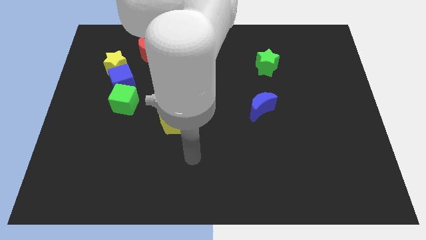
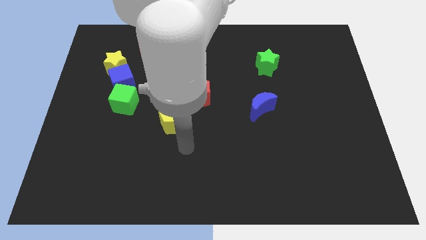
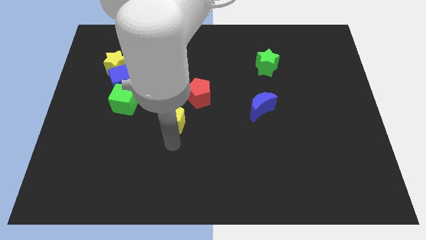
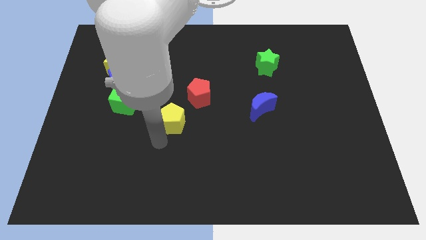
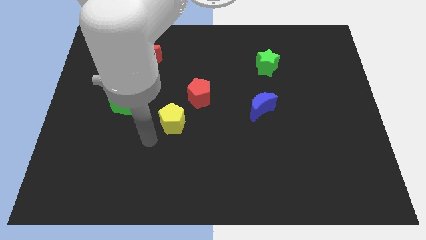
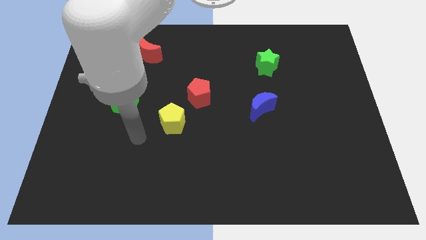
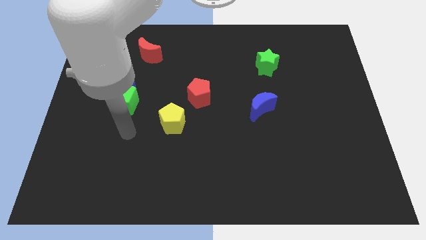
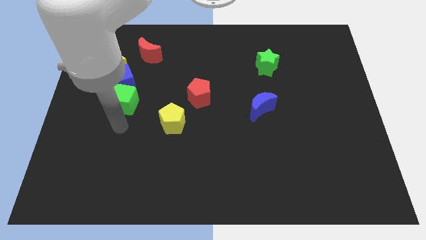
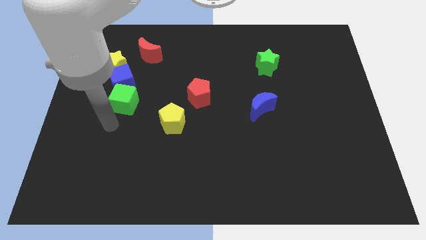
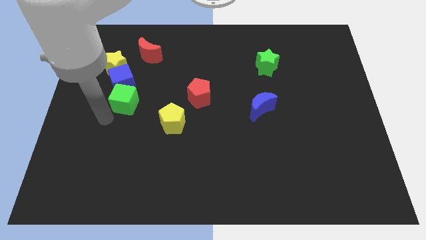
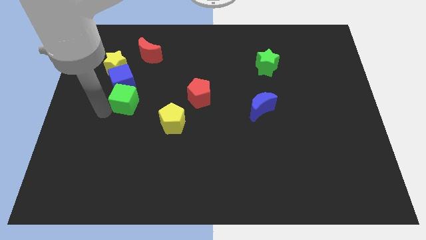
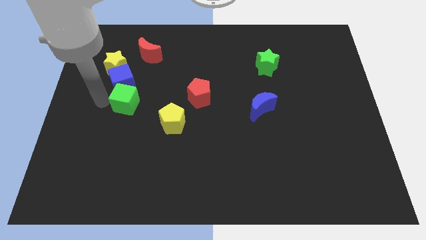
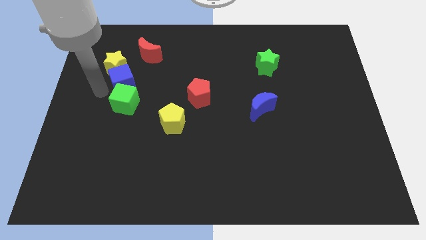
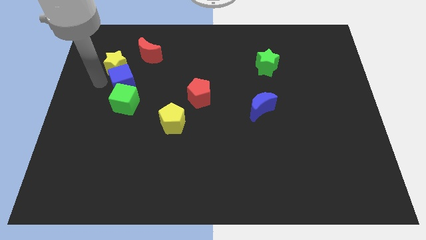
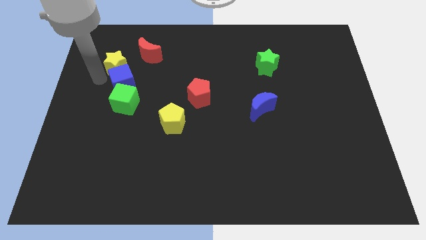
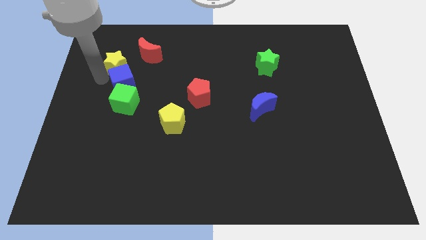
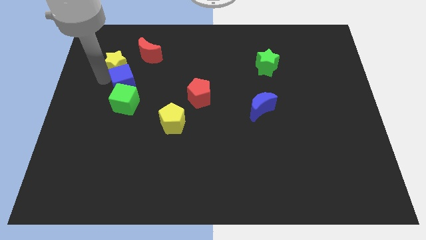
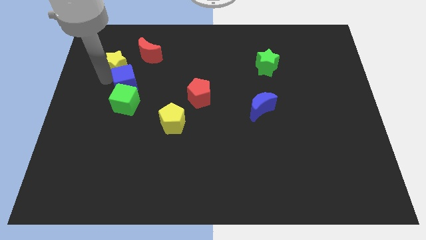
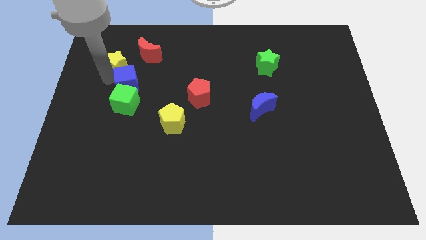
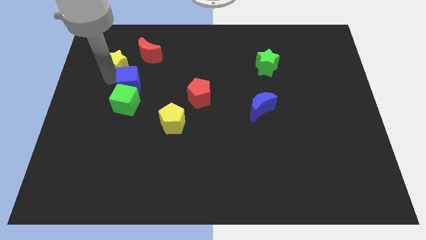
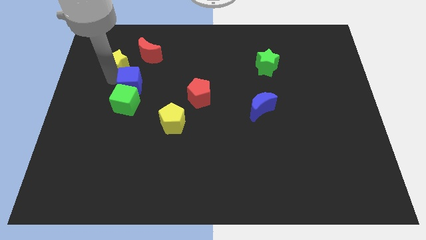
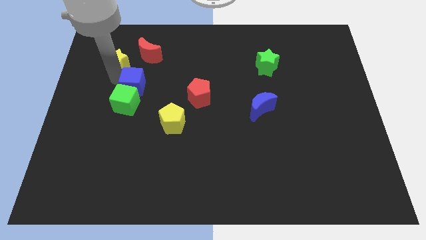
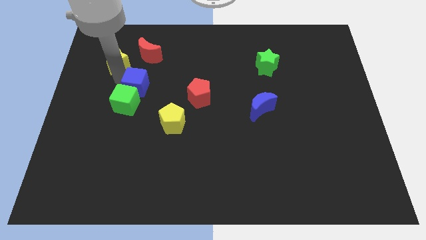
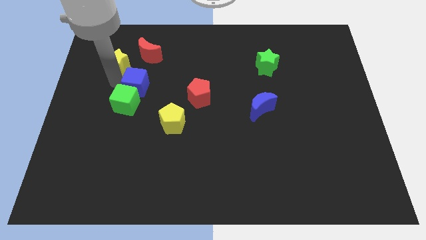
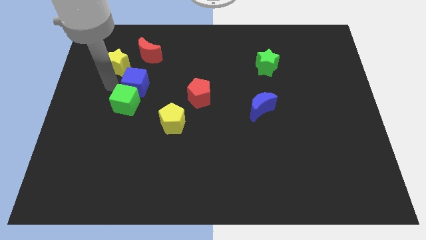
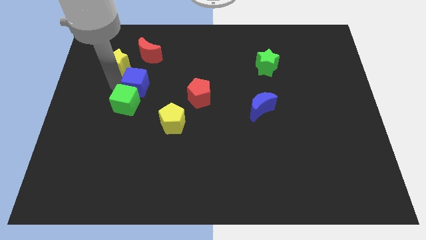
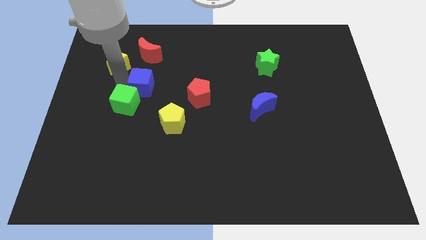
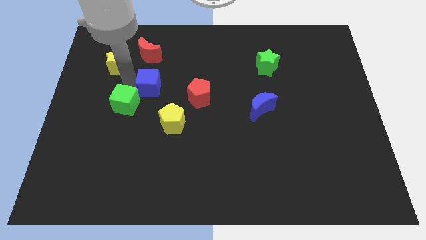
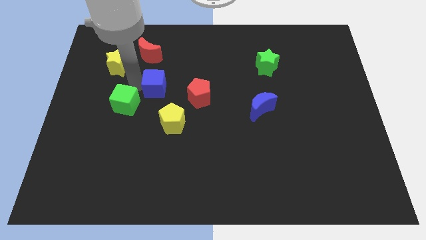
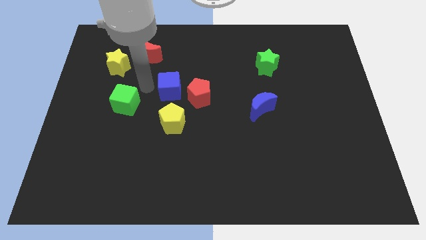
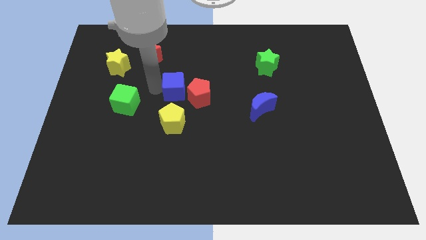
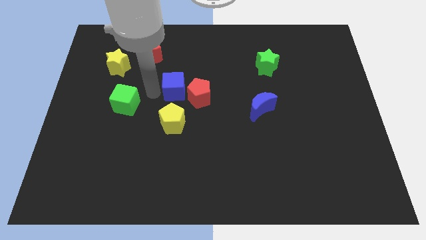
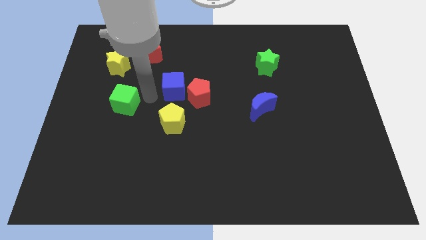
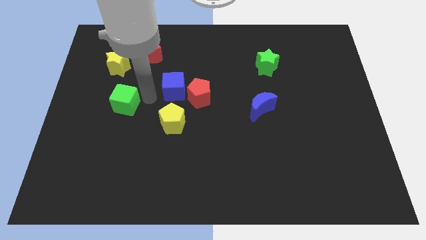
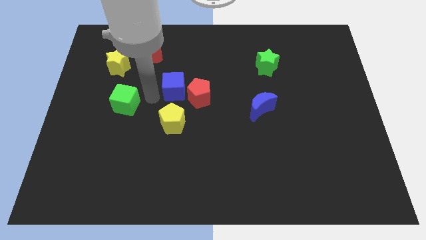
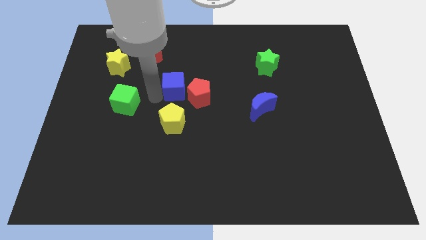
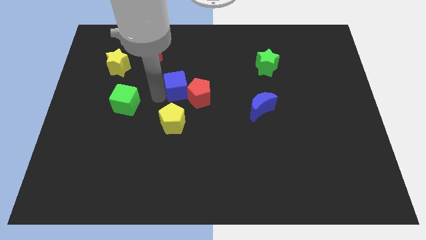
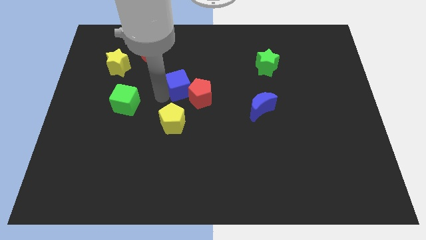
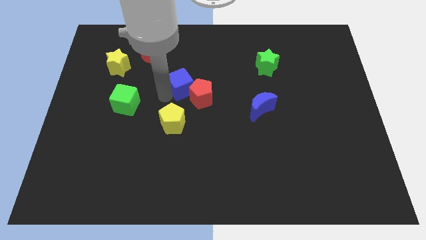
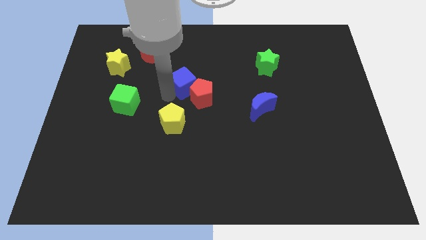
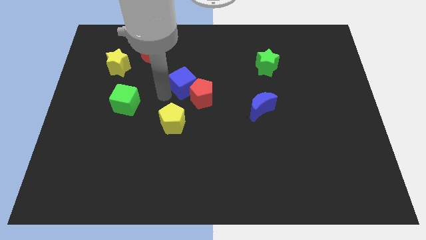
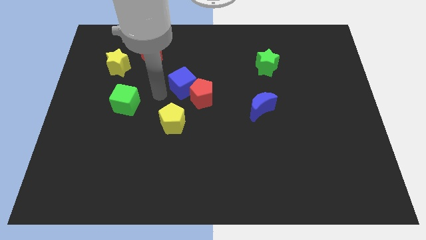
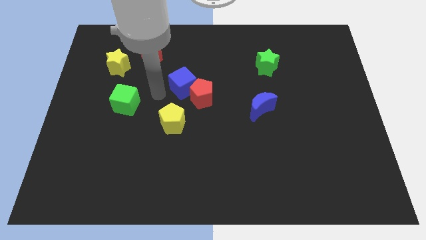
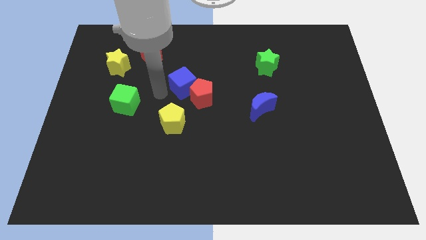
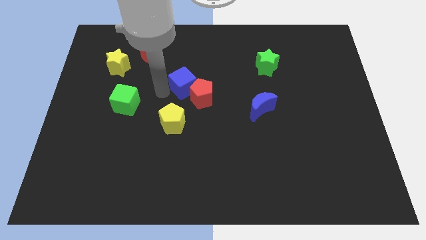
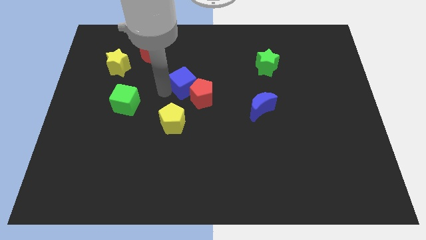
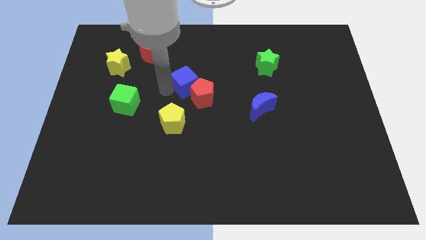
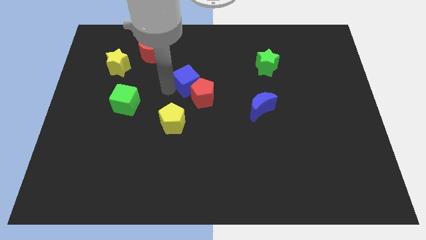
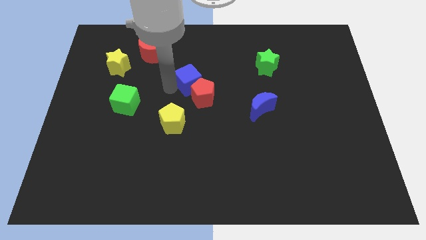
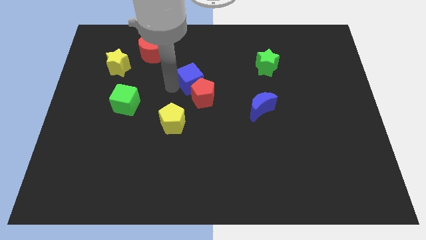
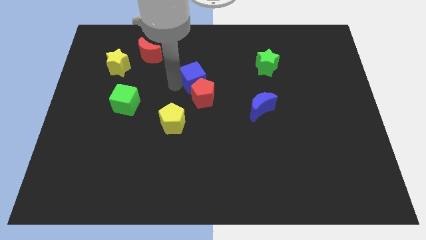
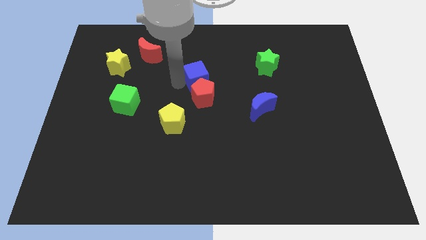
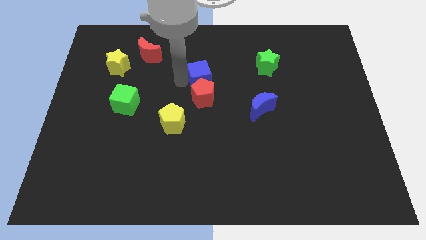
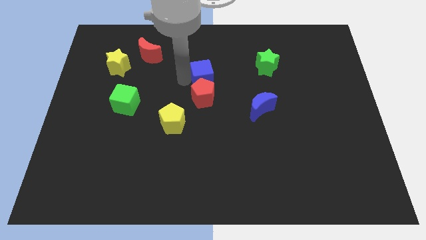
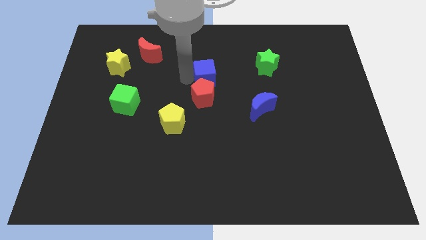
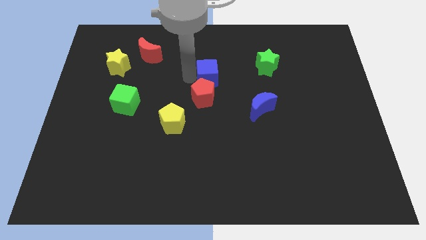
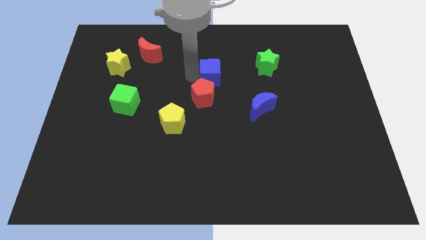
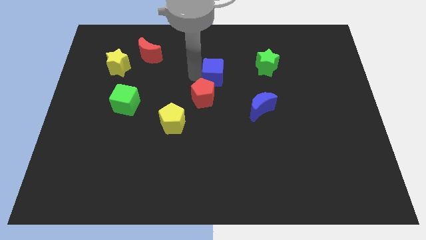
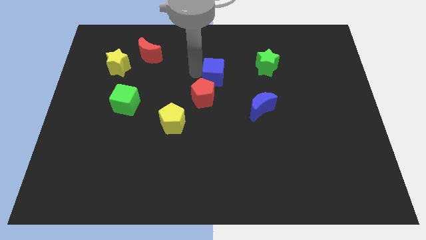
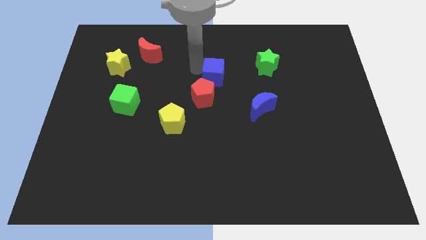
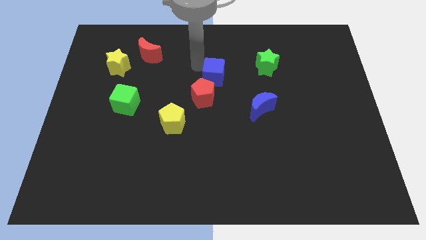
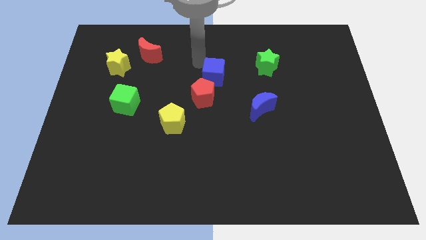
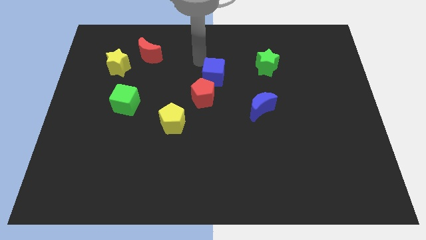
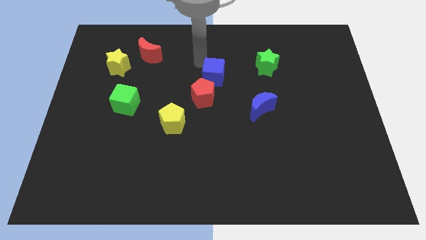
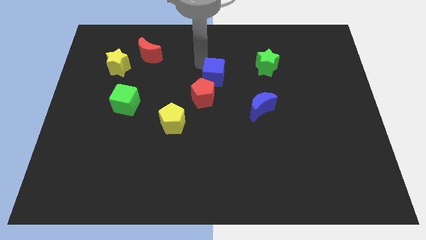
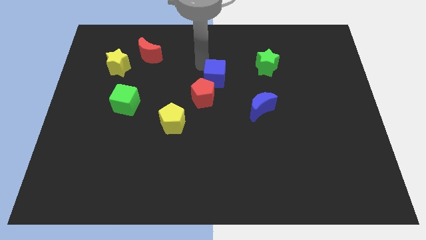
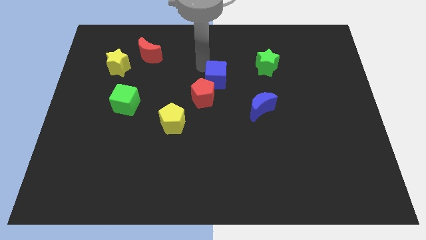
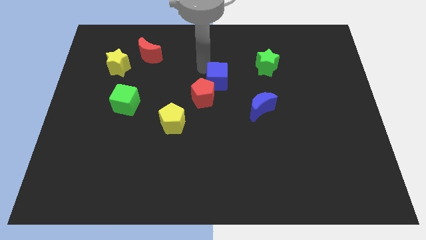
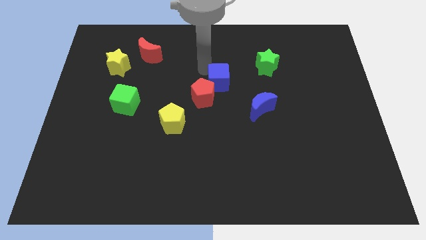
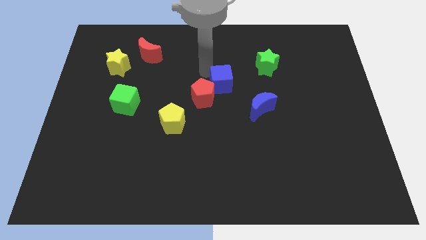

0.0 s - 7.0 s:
put the blue cube just right of the red pentagon

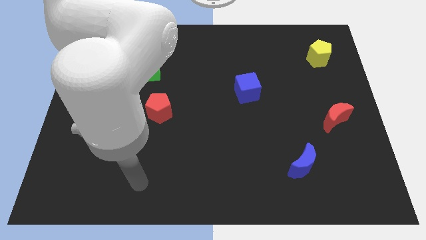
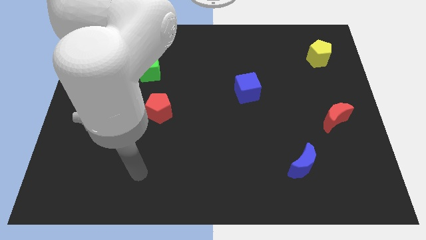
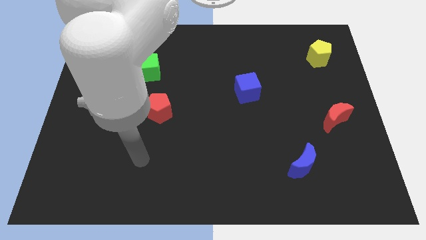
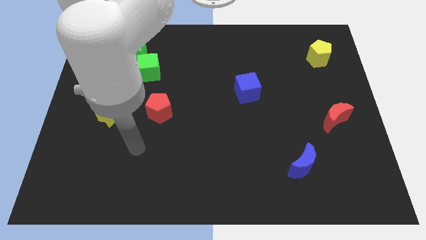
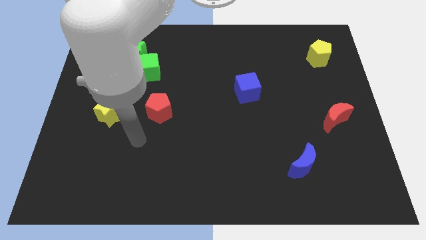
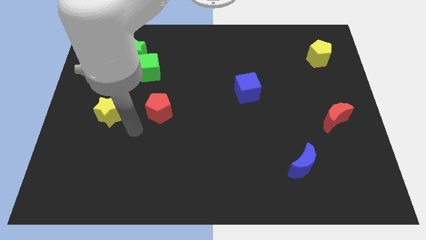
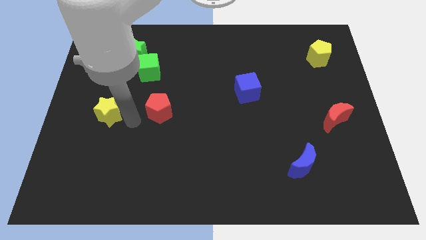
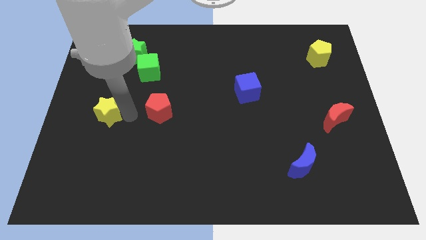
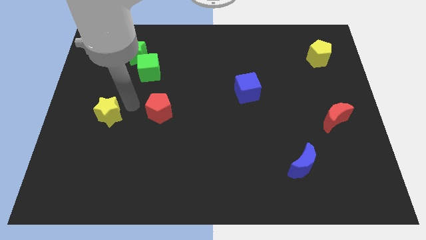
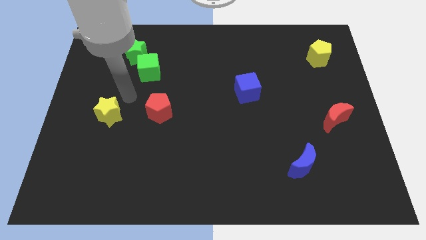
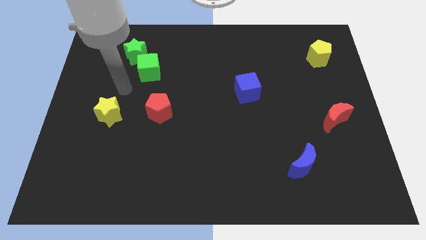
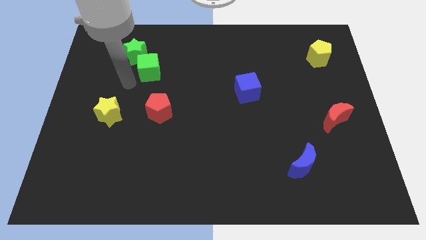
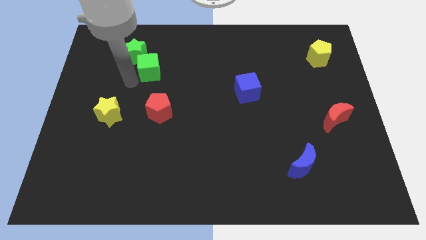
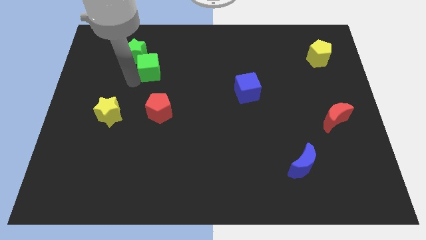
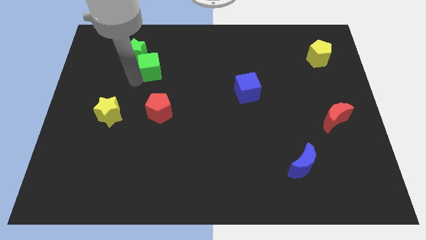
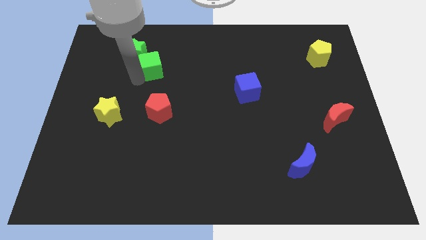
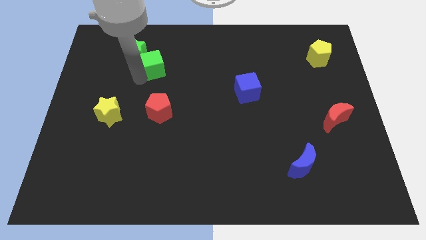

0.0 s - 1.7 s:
push the green cube right of the green star
